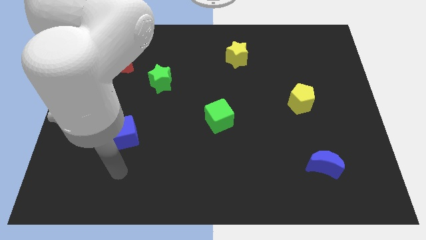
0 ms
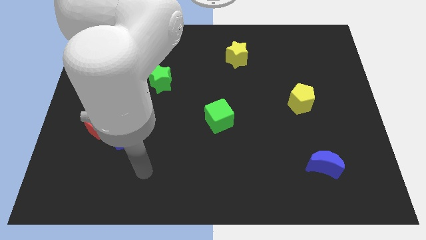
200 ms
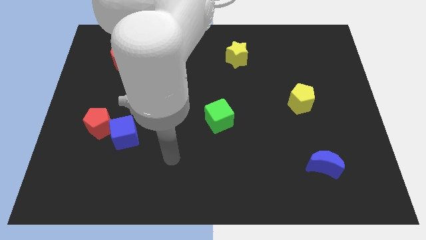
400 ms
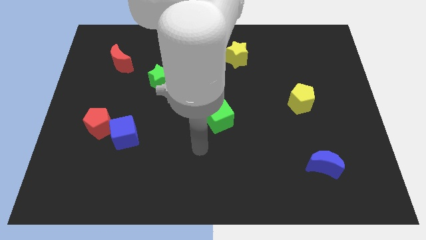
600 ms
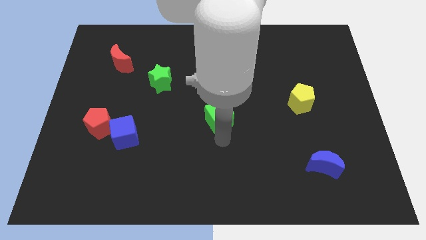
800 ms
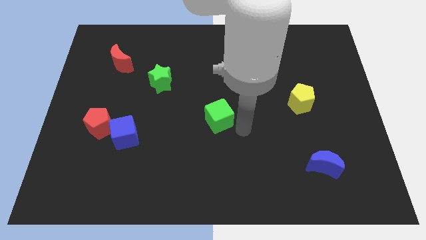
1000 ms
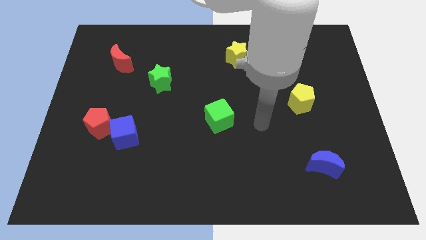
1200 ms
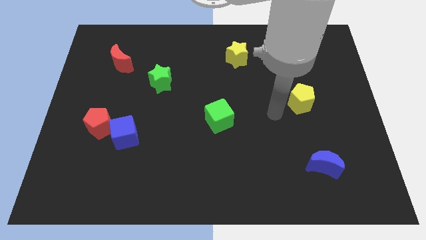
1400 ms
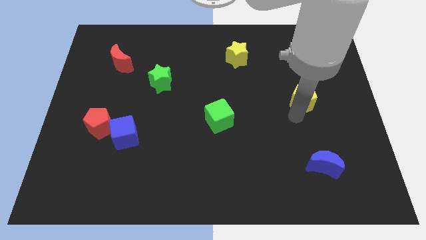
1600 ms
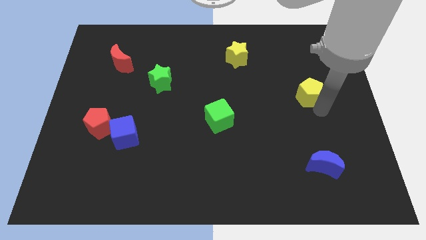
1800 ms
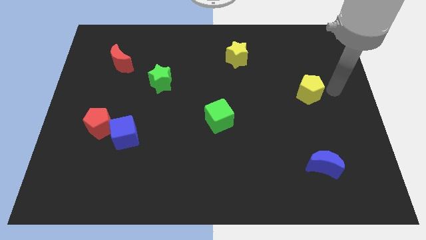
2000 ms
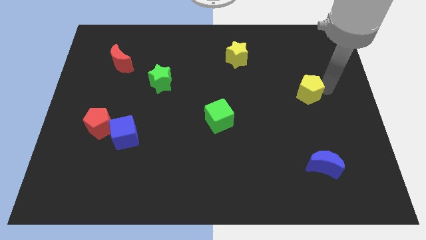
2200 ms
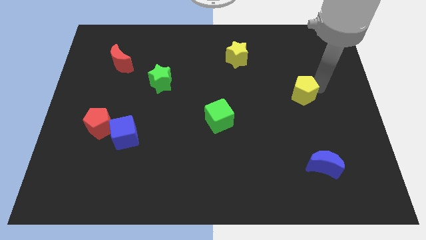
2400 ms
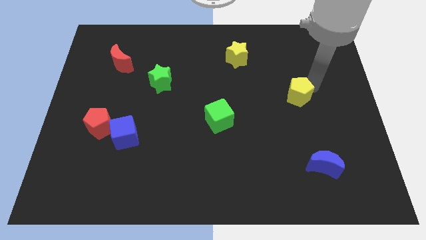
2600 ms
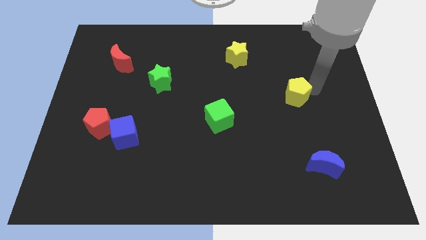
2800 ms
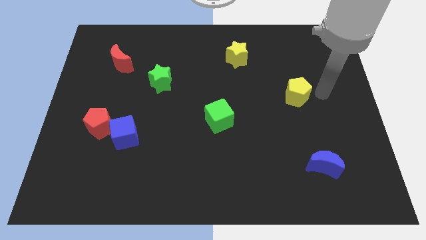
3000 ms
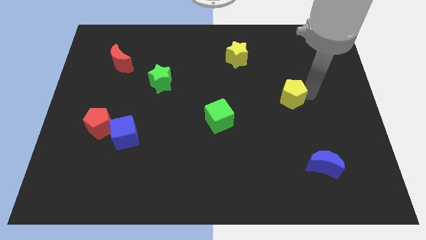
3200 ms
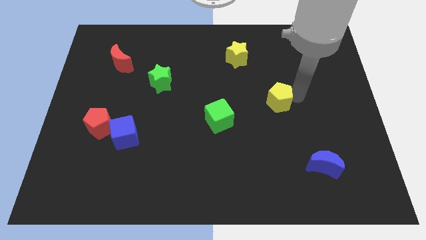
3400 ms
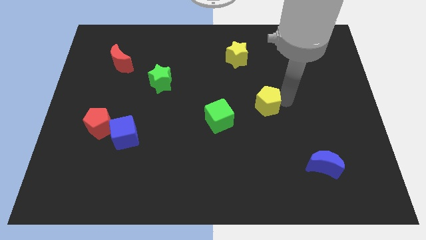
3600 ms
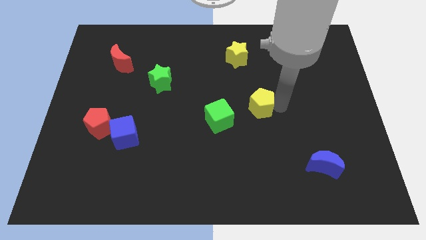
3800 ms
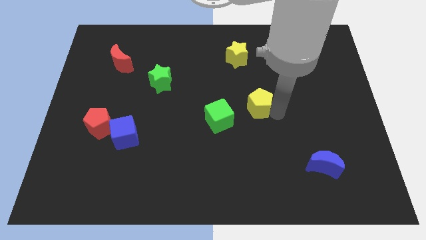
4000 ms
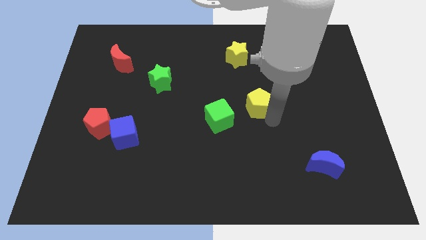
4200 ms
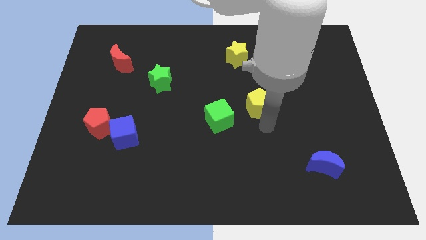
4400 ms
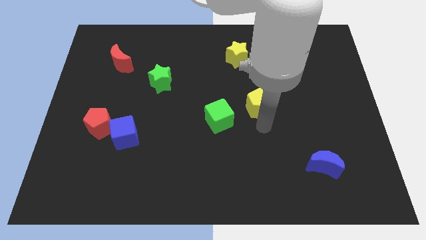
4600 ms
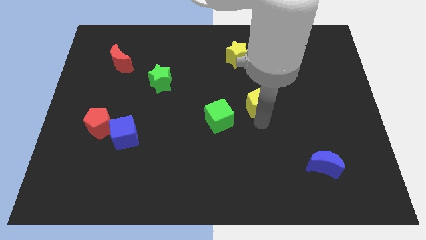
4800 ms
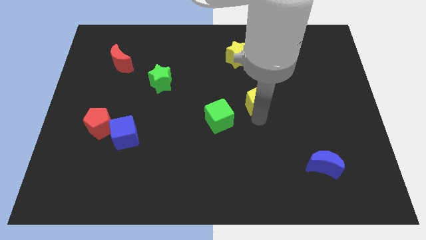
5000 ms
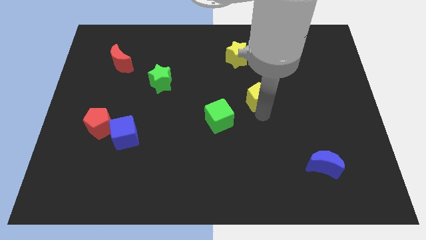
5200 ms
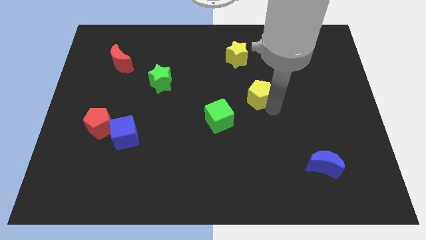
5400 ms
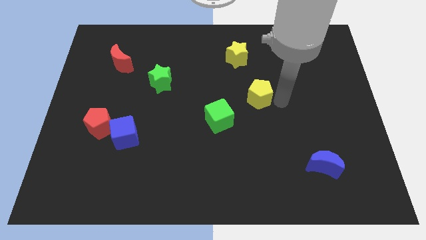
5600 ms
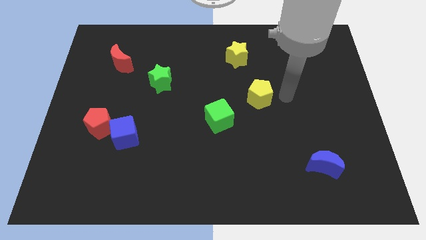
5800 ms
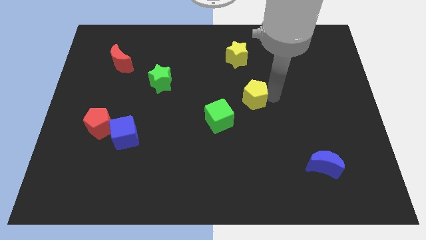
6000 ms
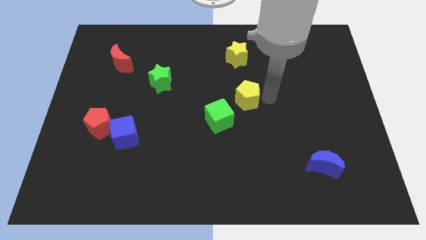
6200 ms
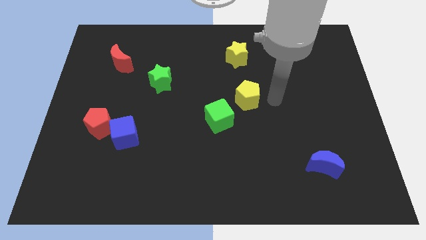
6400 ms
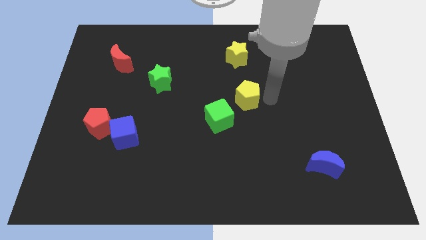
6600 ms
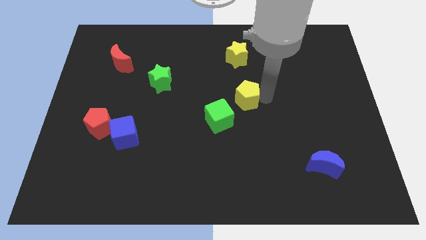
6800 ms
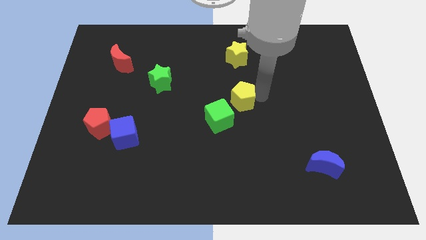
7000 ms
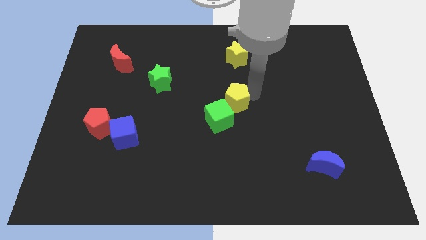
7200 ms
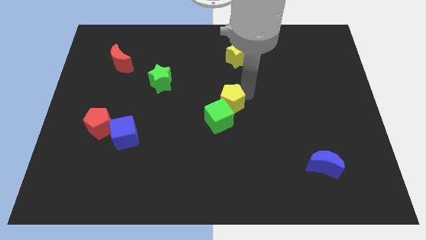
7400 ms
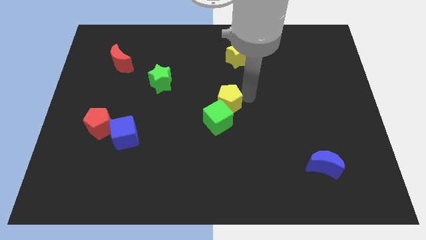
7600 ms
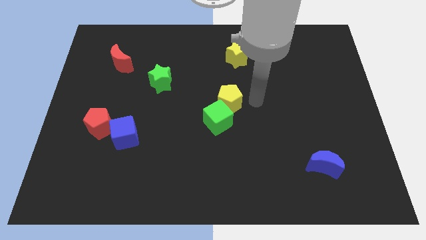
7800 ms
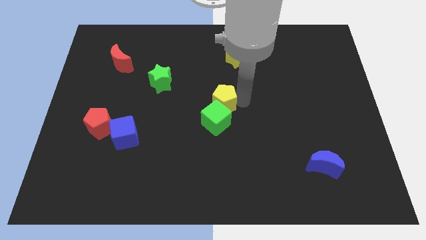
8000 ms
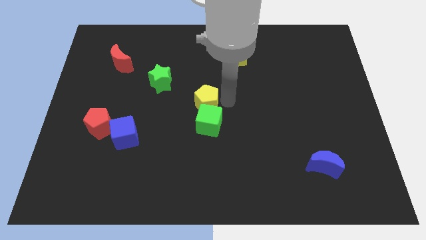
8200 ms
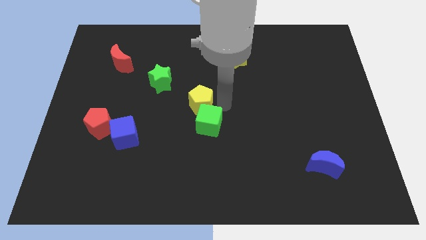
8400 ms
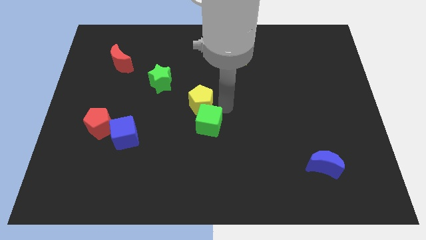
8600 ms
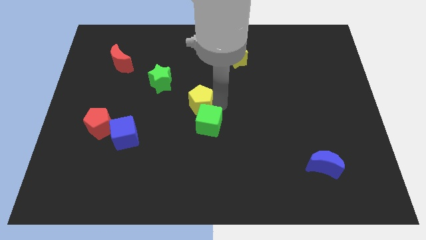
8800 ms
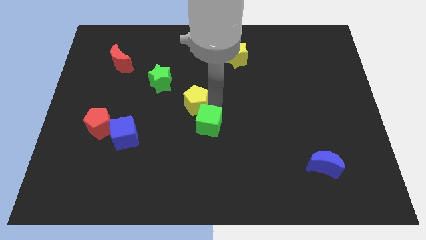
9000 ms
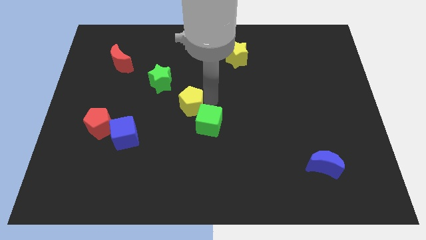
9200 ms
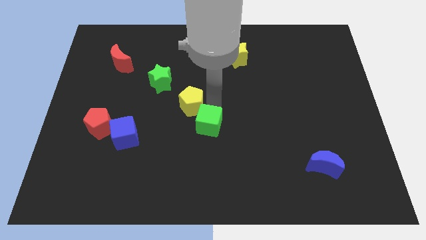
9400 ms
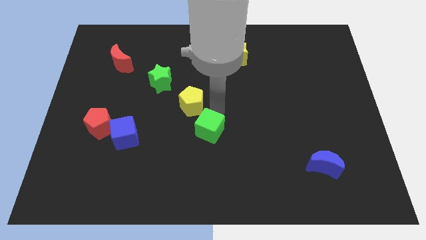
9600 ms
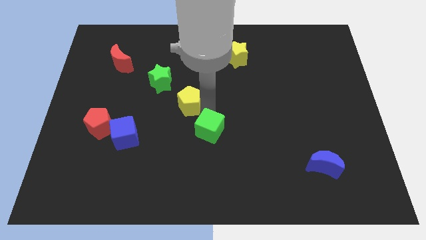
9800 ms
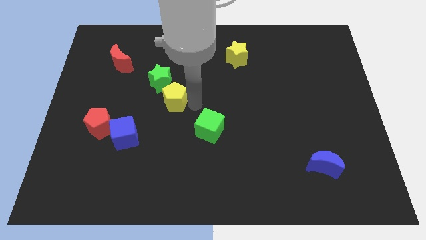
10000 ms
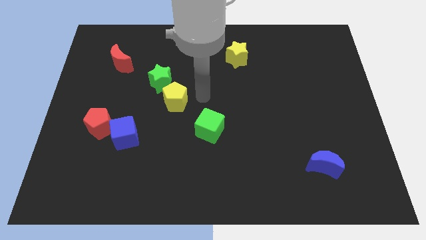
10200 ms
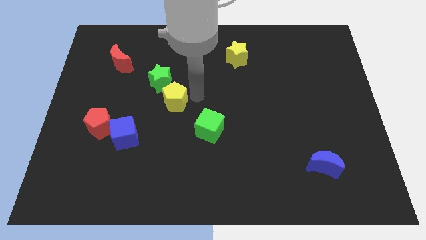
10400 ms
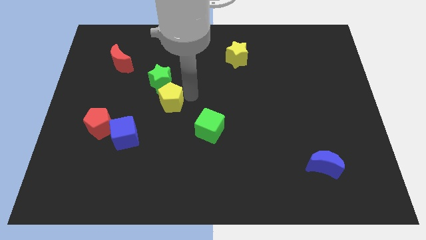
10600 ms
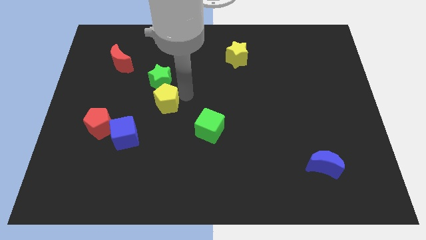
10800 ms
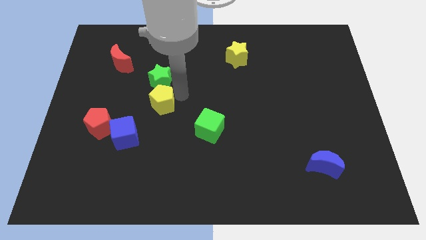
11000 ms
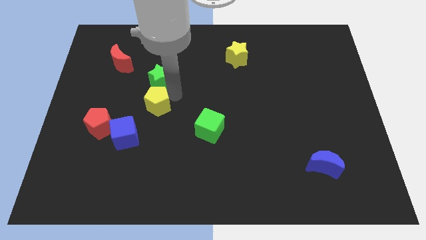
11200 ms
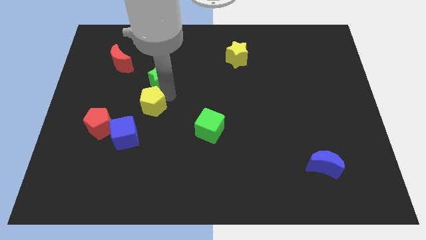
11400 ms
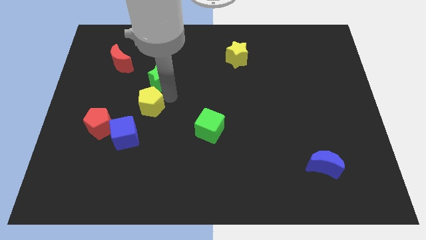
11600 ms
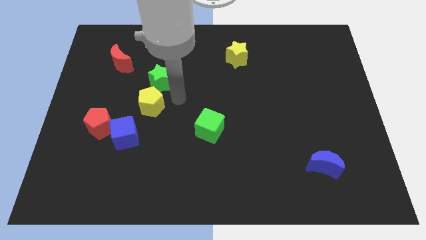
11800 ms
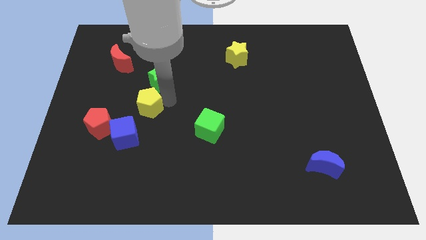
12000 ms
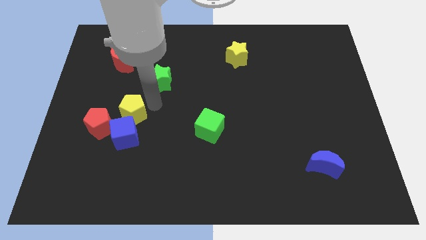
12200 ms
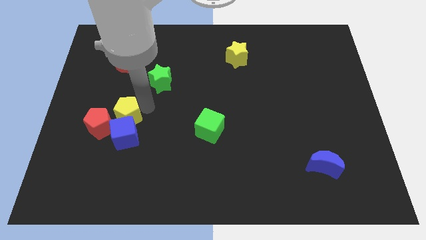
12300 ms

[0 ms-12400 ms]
push the yellow pentagon to the top left of the blue cube

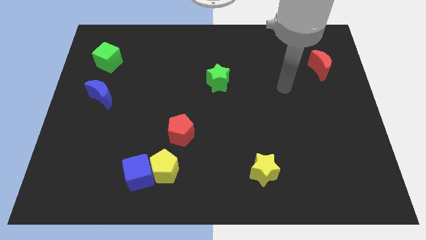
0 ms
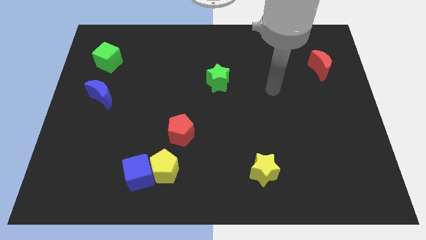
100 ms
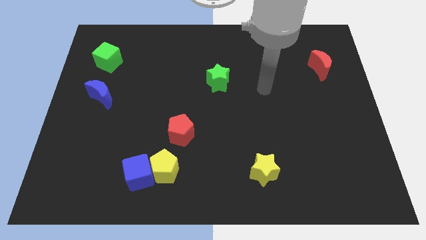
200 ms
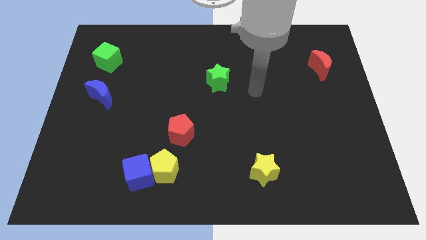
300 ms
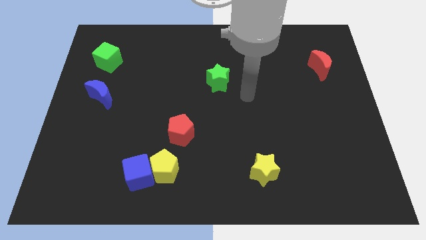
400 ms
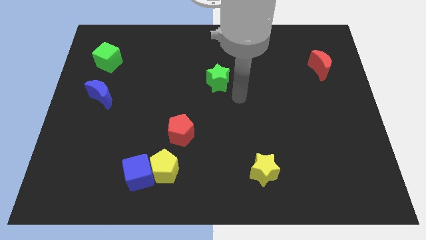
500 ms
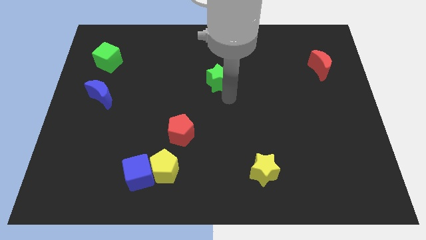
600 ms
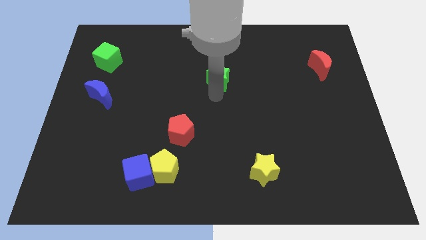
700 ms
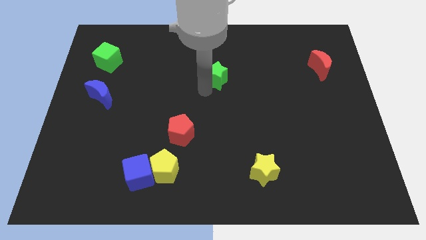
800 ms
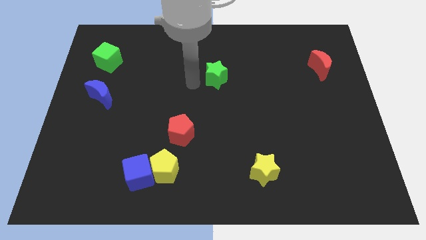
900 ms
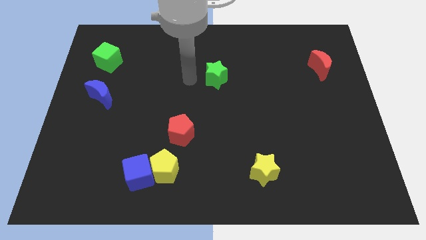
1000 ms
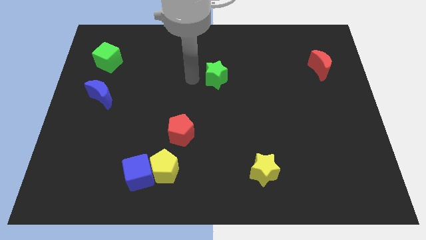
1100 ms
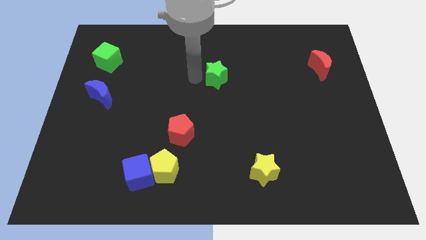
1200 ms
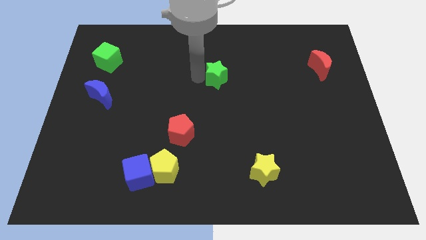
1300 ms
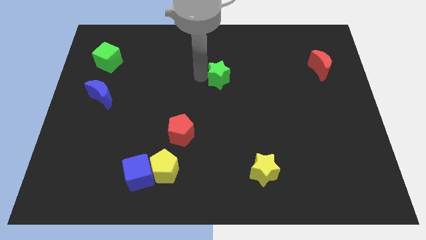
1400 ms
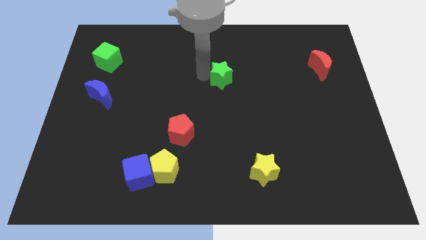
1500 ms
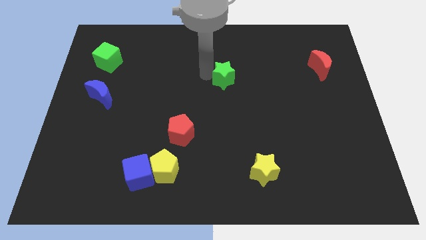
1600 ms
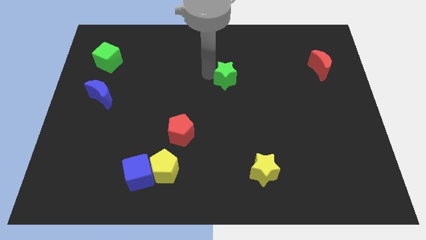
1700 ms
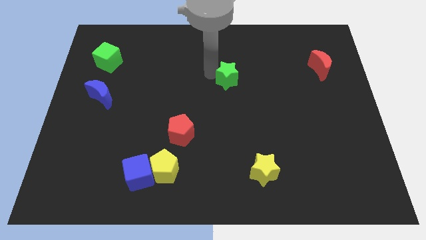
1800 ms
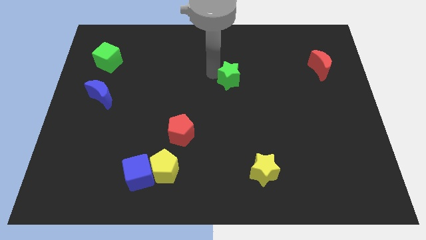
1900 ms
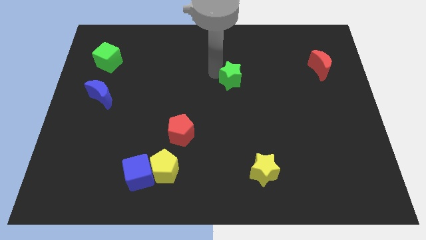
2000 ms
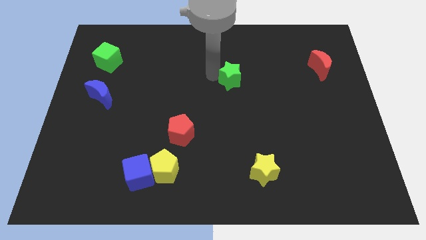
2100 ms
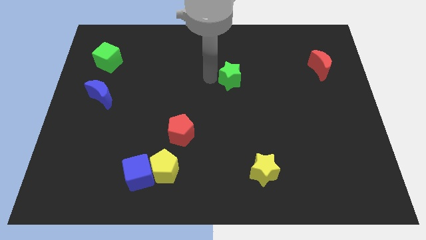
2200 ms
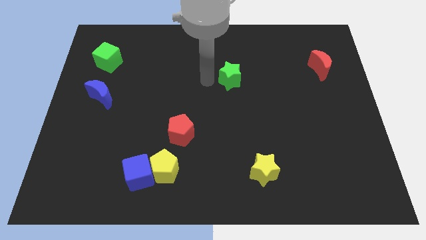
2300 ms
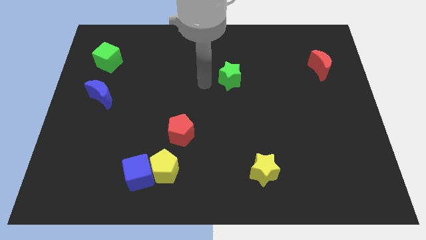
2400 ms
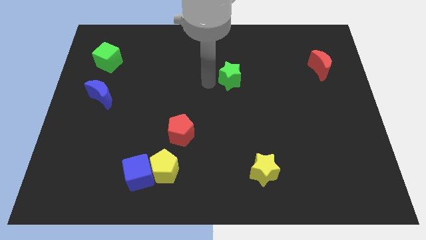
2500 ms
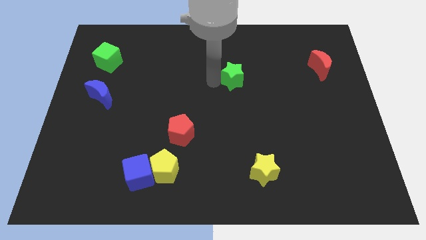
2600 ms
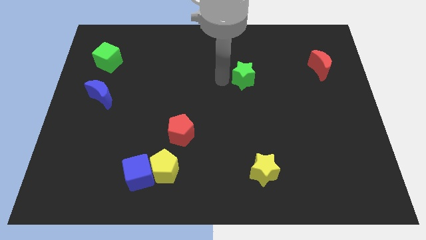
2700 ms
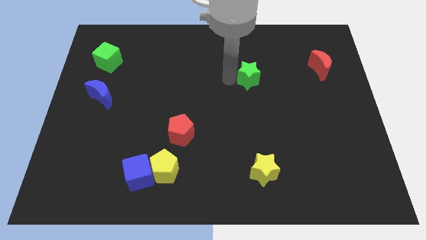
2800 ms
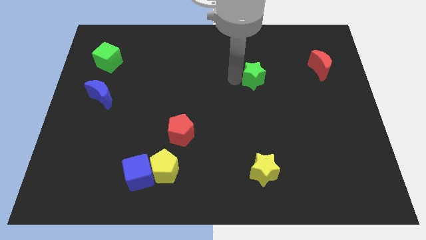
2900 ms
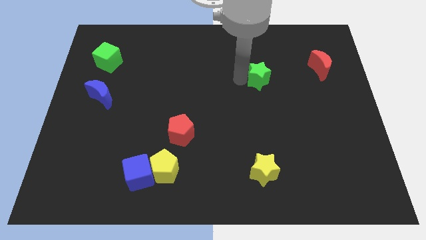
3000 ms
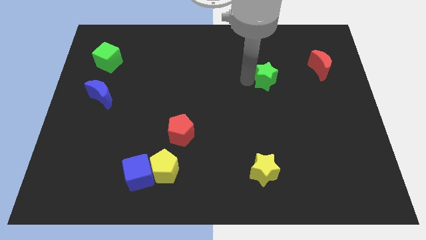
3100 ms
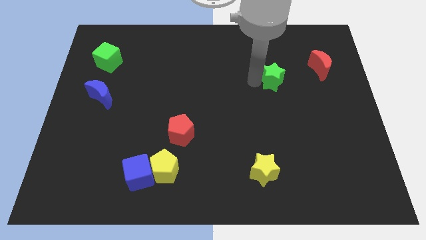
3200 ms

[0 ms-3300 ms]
push the green star just left of the red moon
